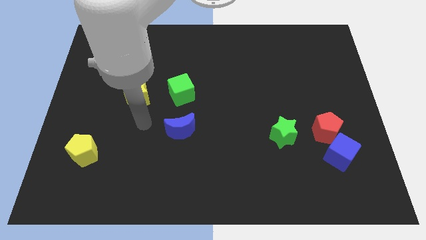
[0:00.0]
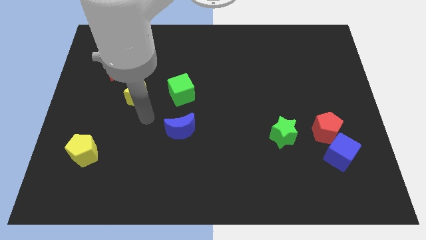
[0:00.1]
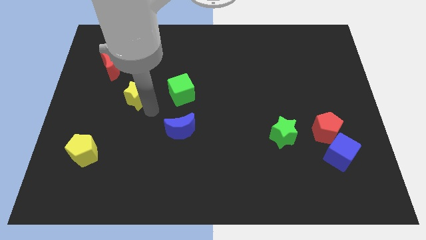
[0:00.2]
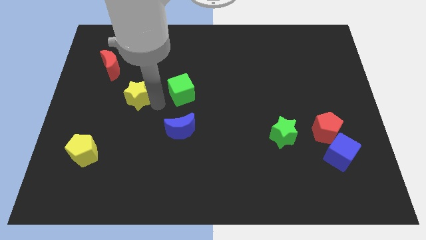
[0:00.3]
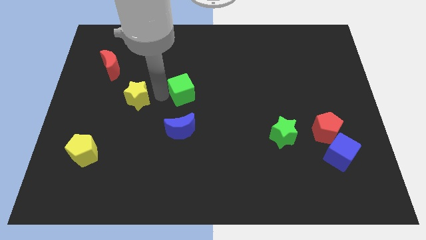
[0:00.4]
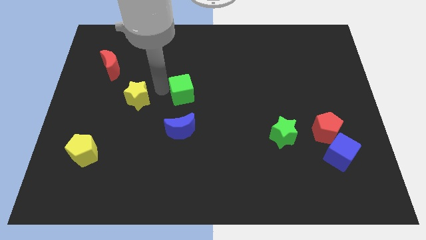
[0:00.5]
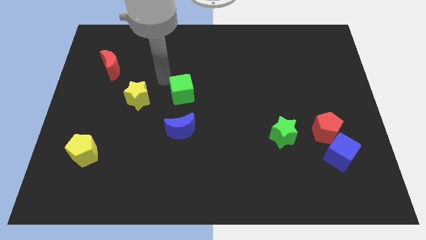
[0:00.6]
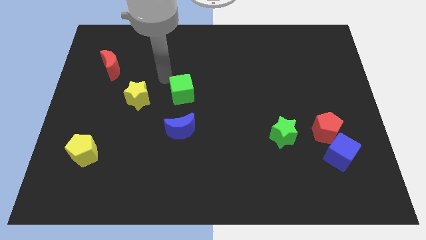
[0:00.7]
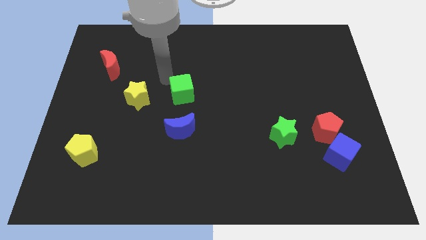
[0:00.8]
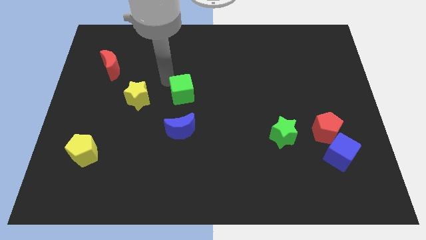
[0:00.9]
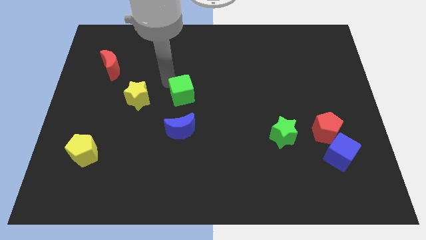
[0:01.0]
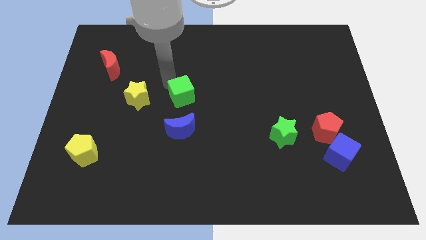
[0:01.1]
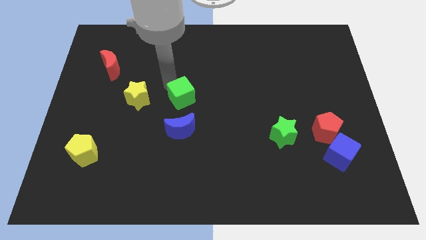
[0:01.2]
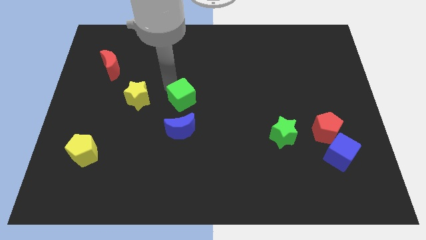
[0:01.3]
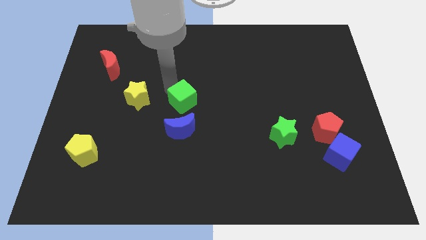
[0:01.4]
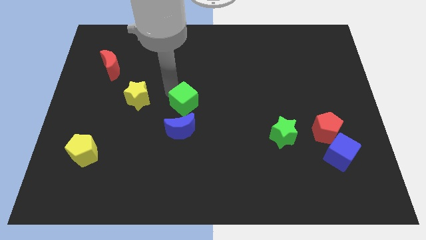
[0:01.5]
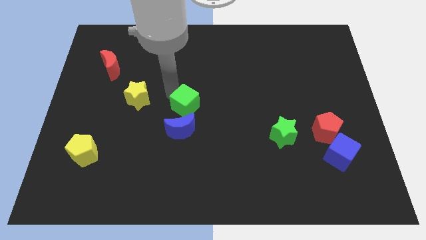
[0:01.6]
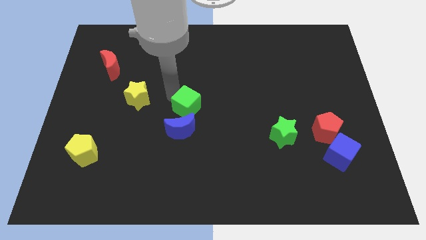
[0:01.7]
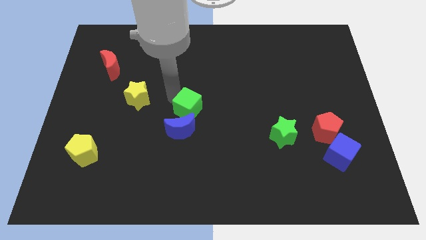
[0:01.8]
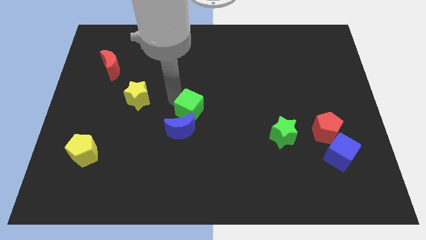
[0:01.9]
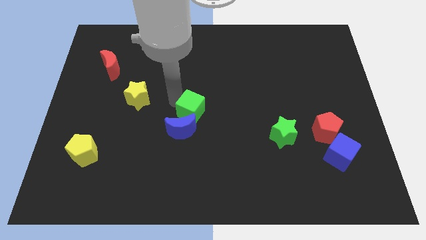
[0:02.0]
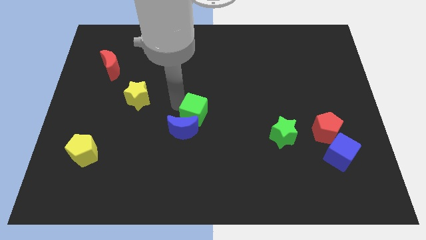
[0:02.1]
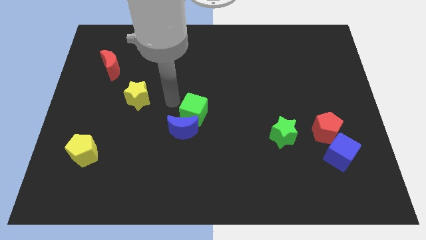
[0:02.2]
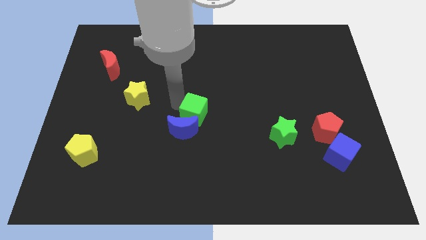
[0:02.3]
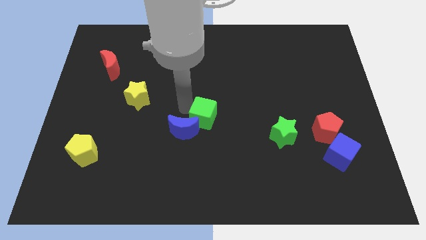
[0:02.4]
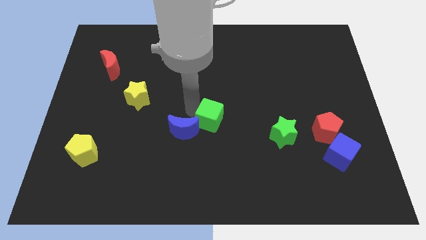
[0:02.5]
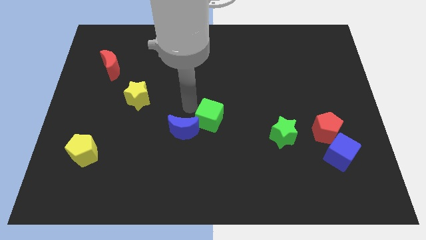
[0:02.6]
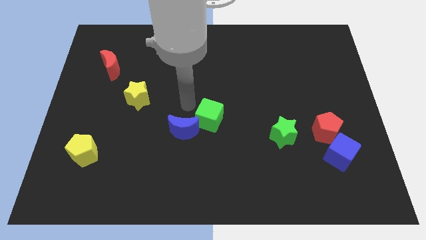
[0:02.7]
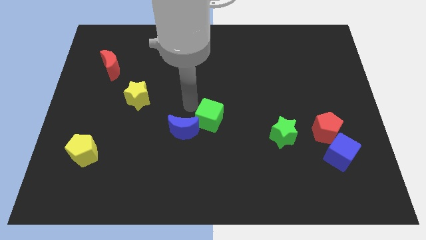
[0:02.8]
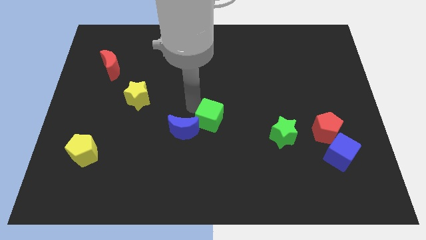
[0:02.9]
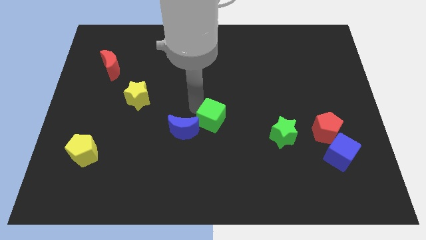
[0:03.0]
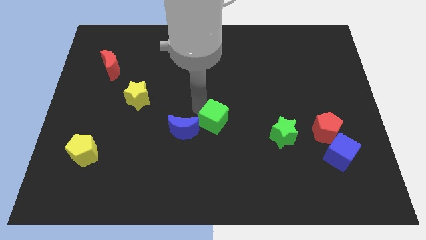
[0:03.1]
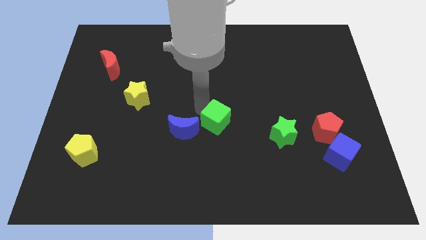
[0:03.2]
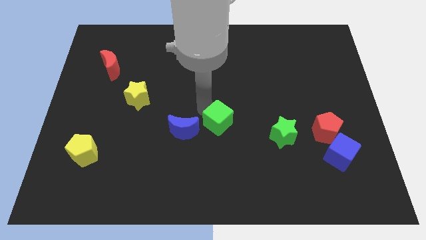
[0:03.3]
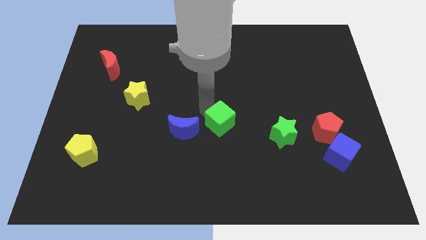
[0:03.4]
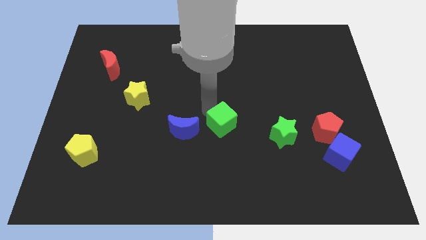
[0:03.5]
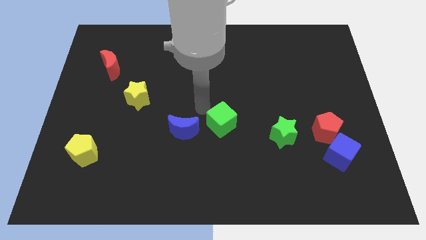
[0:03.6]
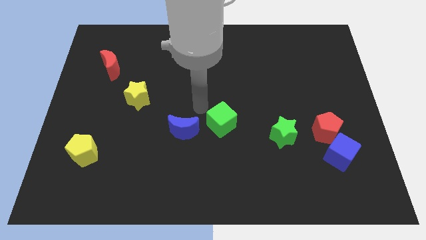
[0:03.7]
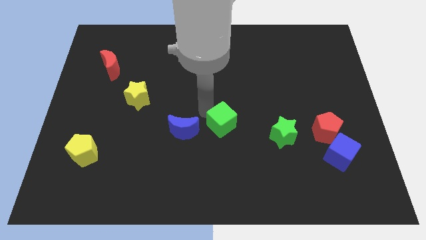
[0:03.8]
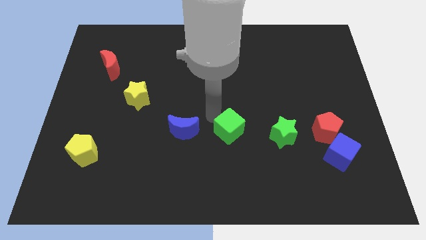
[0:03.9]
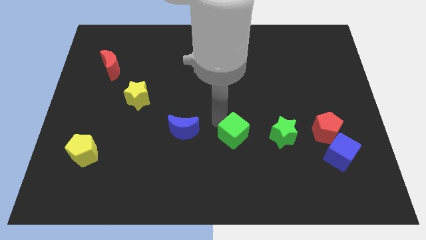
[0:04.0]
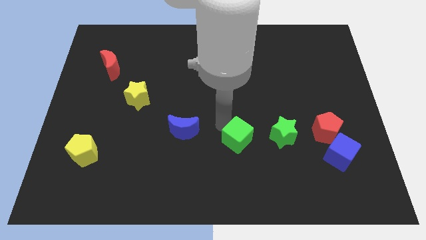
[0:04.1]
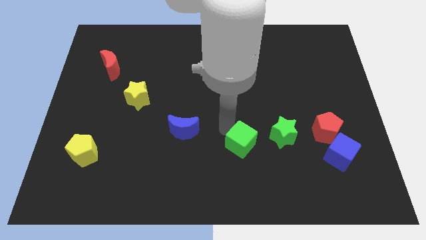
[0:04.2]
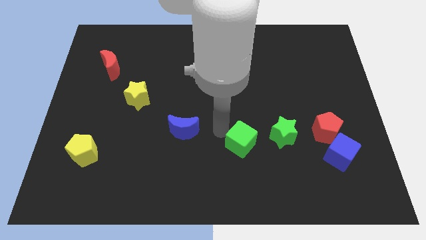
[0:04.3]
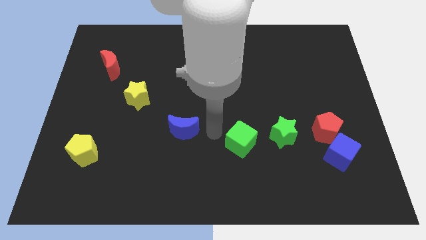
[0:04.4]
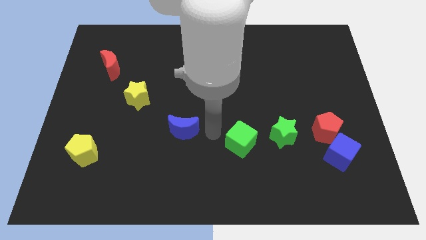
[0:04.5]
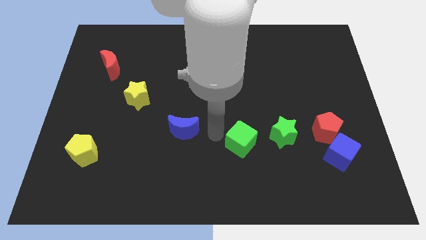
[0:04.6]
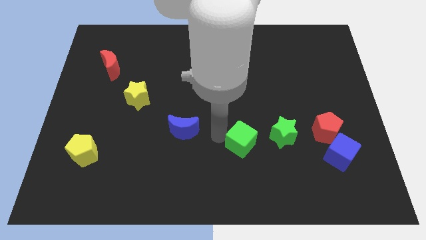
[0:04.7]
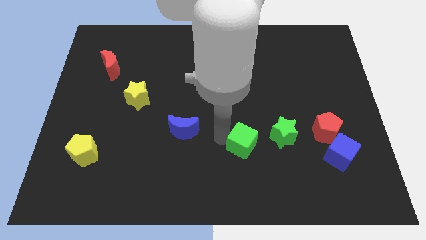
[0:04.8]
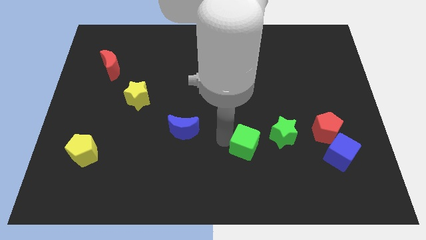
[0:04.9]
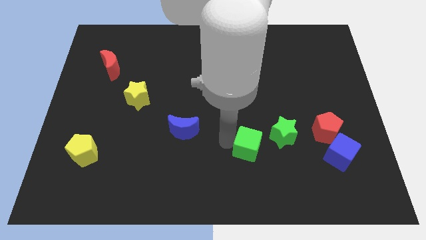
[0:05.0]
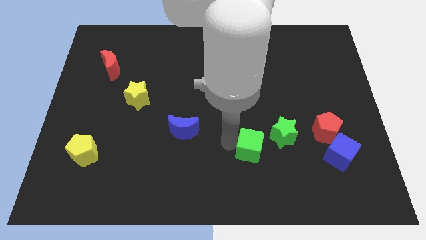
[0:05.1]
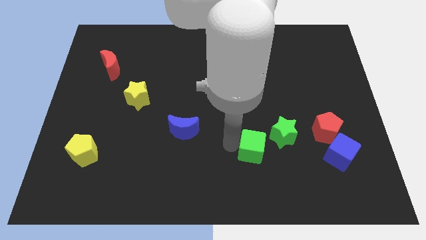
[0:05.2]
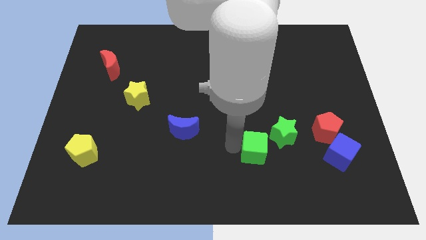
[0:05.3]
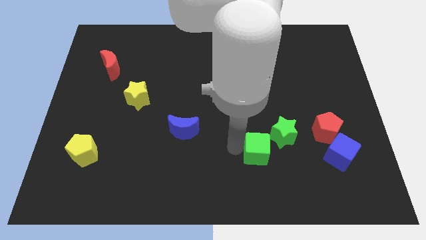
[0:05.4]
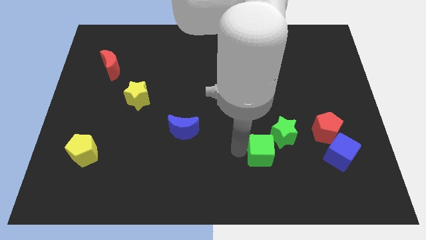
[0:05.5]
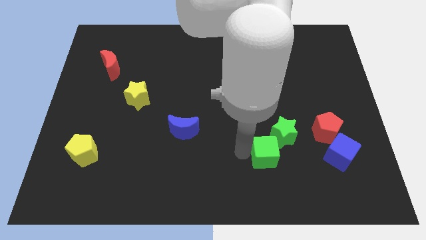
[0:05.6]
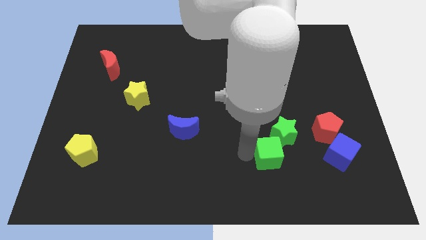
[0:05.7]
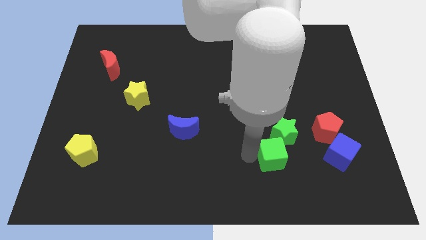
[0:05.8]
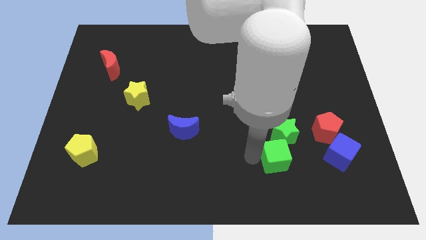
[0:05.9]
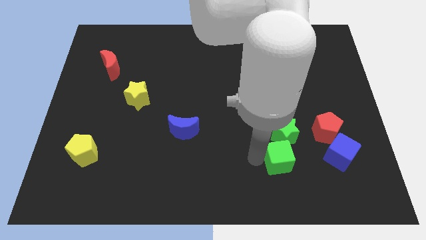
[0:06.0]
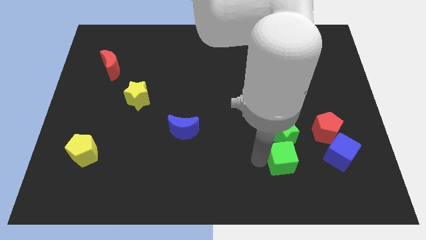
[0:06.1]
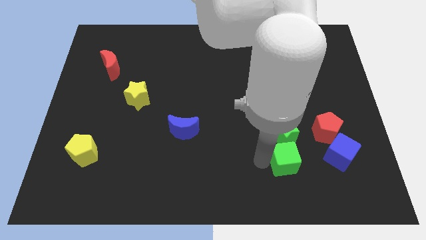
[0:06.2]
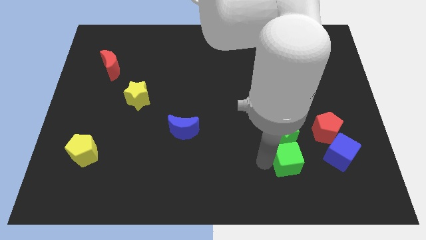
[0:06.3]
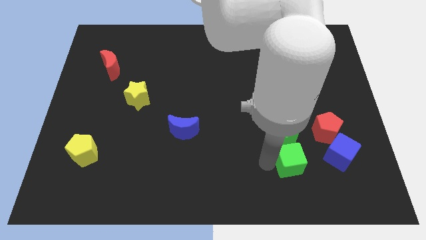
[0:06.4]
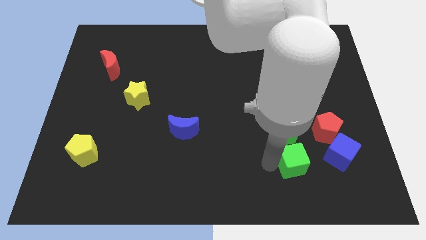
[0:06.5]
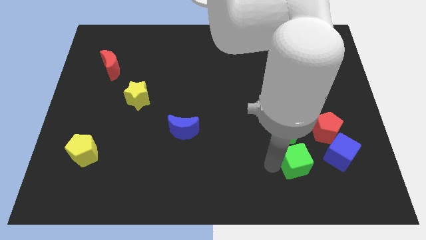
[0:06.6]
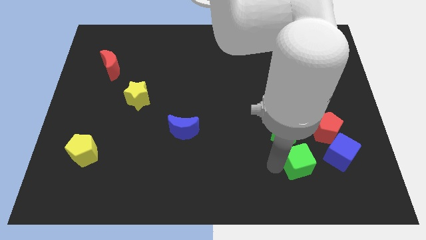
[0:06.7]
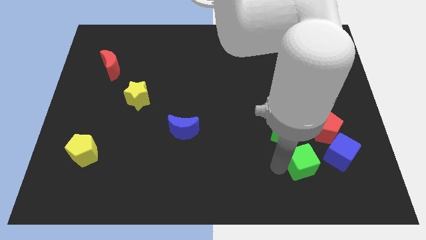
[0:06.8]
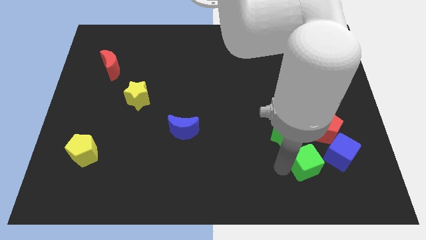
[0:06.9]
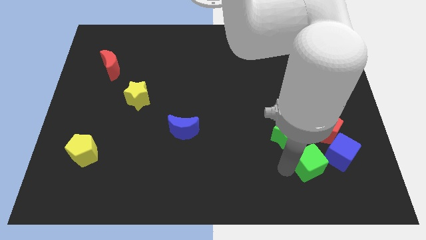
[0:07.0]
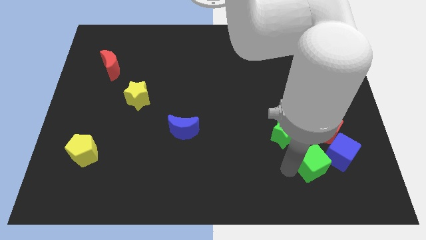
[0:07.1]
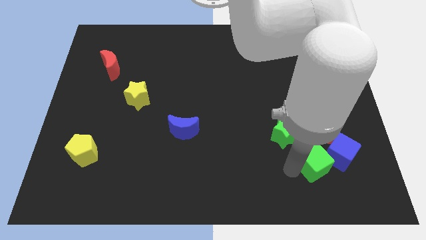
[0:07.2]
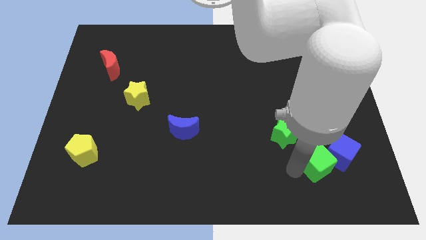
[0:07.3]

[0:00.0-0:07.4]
put the green cube to the blue cube

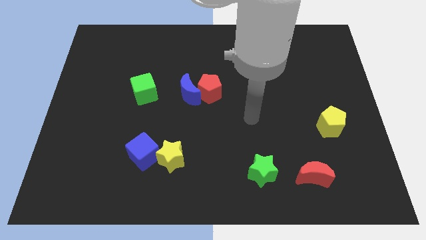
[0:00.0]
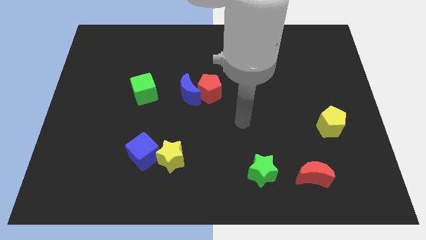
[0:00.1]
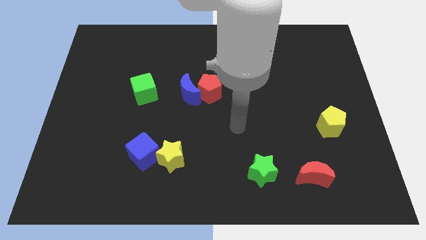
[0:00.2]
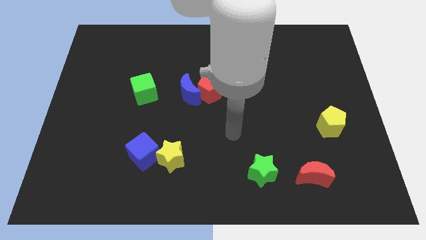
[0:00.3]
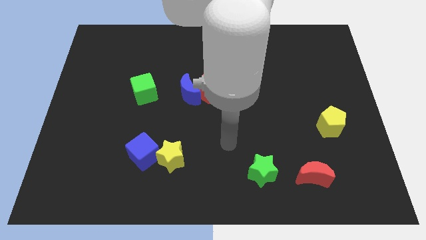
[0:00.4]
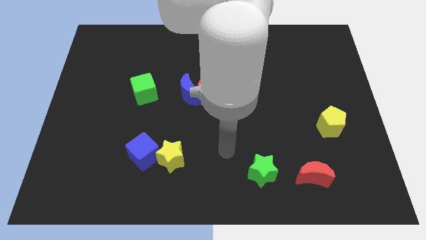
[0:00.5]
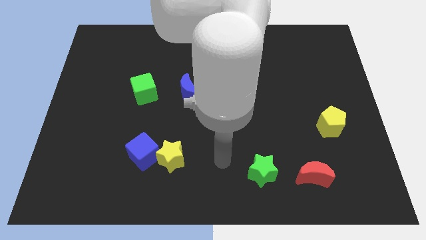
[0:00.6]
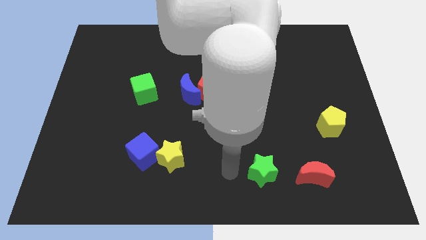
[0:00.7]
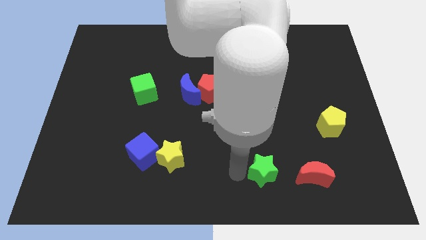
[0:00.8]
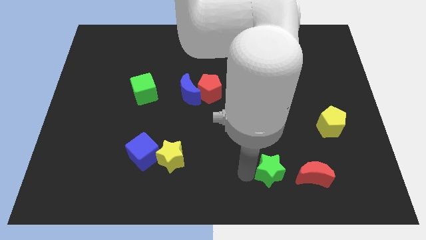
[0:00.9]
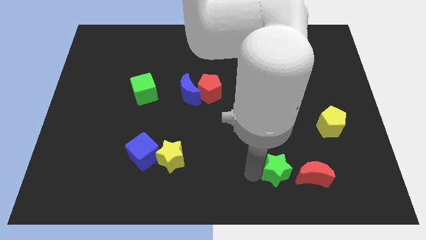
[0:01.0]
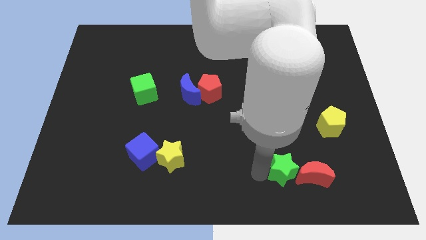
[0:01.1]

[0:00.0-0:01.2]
push the green star close to the red moon
